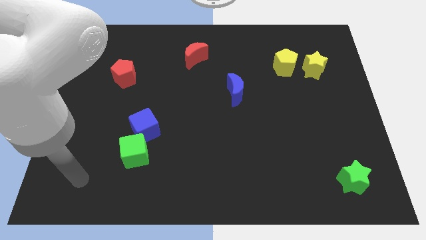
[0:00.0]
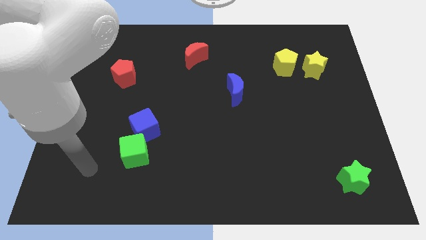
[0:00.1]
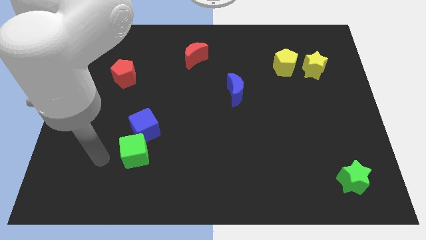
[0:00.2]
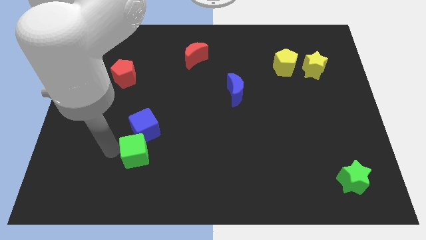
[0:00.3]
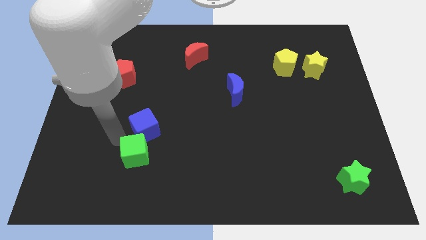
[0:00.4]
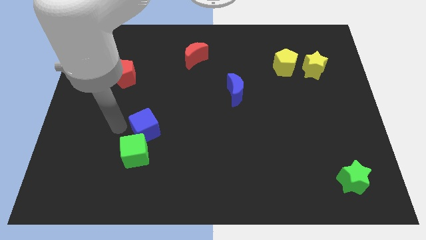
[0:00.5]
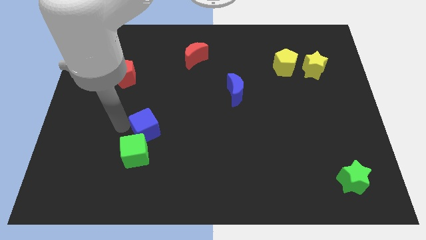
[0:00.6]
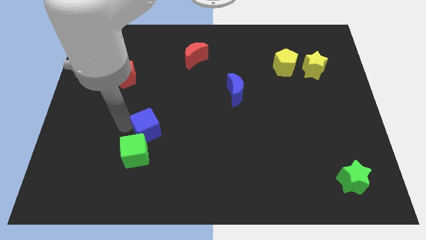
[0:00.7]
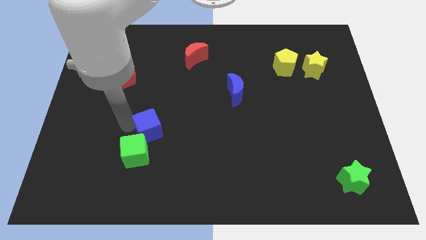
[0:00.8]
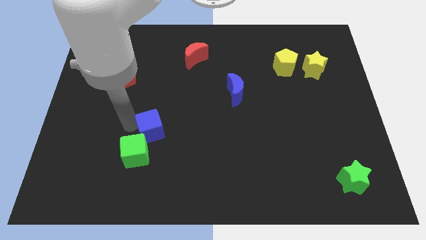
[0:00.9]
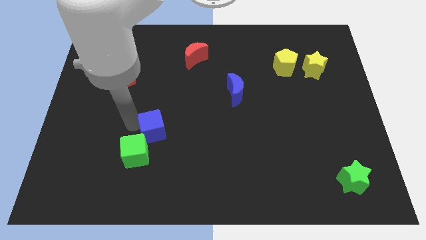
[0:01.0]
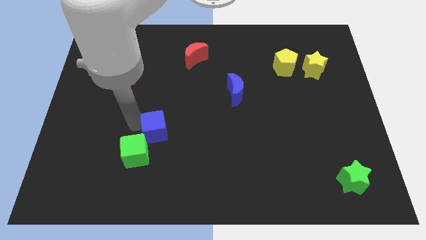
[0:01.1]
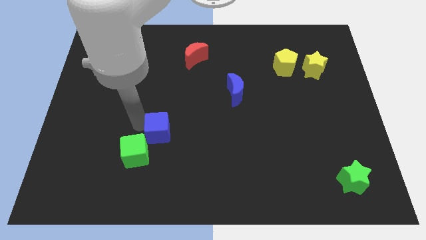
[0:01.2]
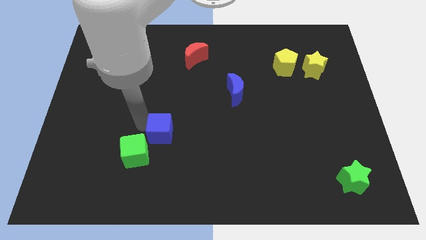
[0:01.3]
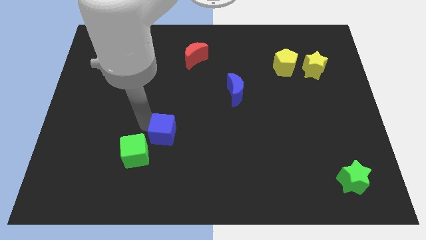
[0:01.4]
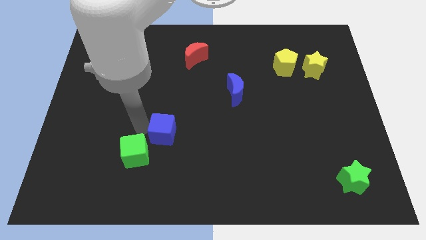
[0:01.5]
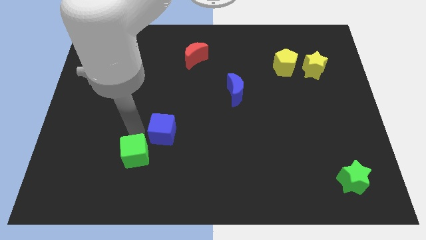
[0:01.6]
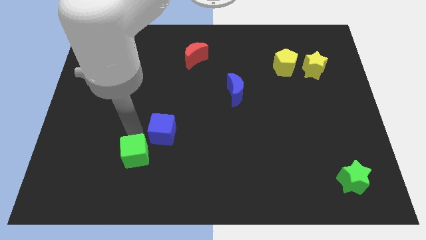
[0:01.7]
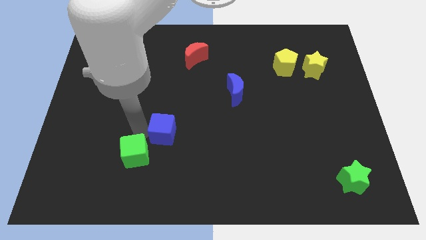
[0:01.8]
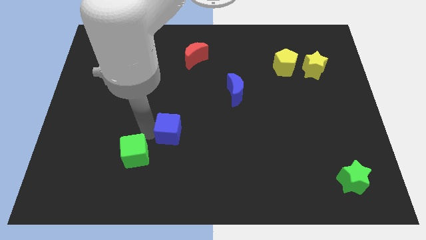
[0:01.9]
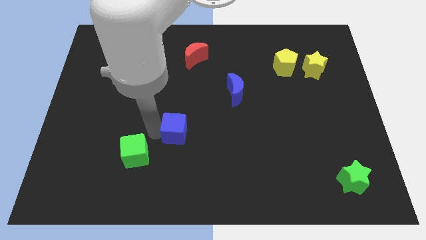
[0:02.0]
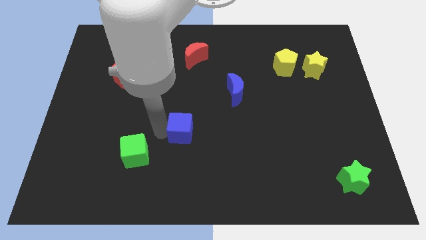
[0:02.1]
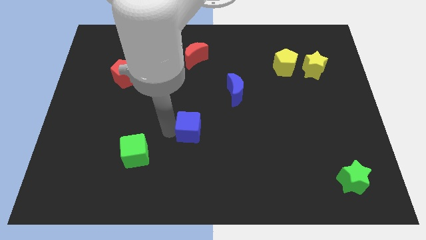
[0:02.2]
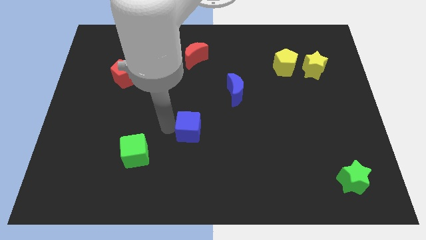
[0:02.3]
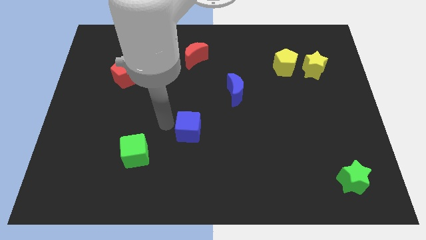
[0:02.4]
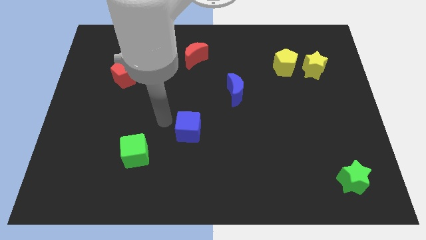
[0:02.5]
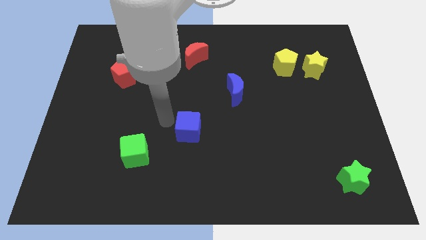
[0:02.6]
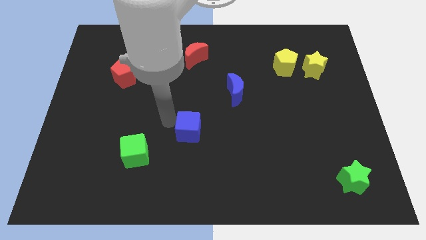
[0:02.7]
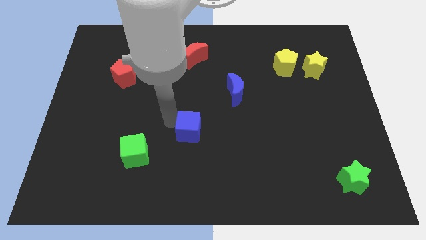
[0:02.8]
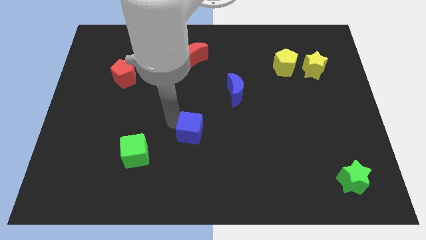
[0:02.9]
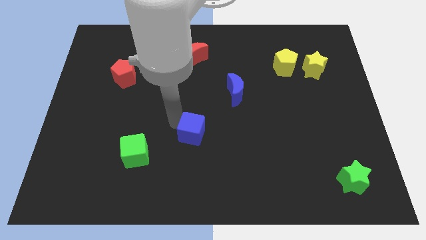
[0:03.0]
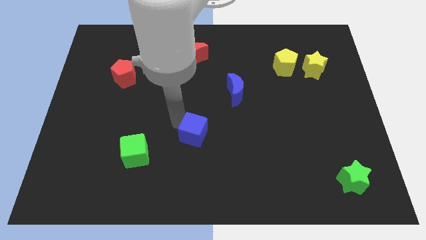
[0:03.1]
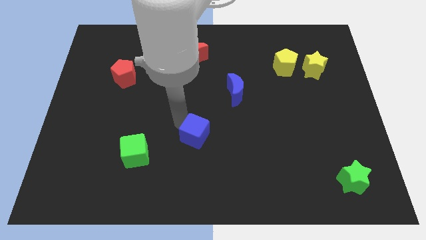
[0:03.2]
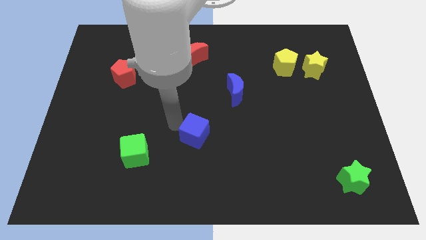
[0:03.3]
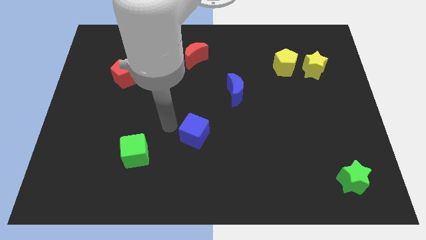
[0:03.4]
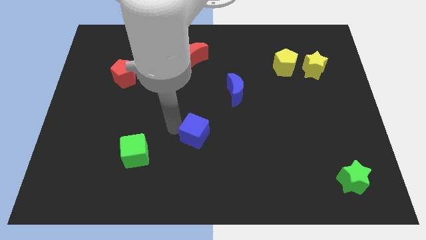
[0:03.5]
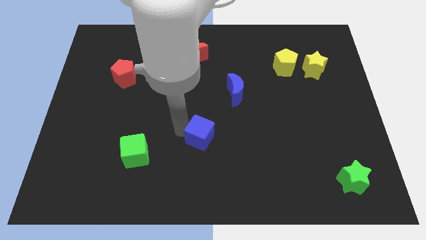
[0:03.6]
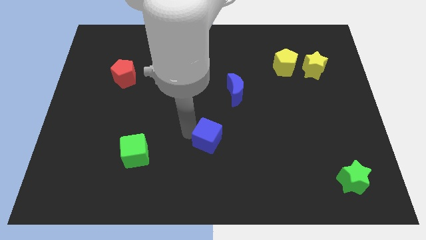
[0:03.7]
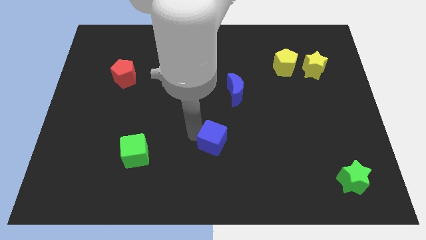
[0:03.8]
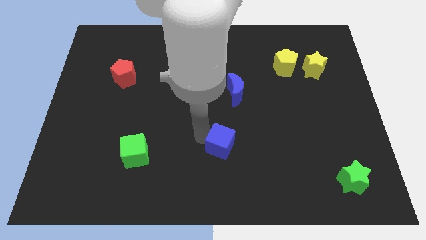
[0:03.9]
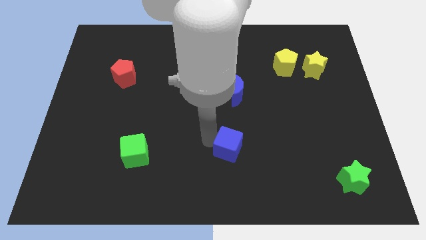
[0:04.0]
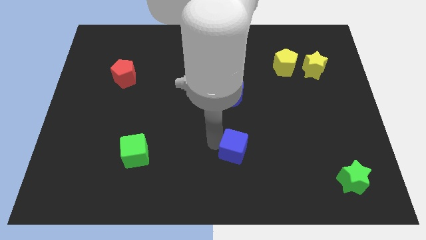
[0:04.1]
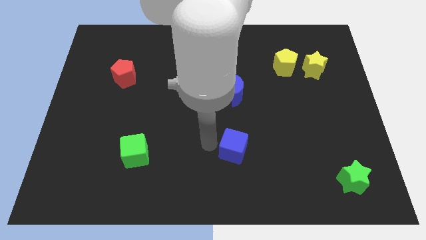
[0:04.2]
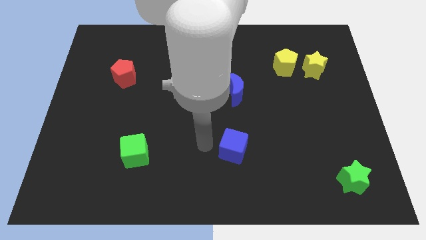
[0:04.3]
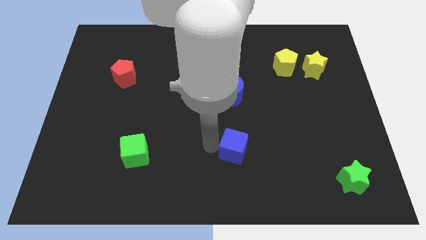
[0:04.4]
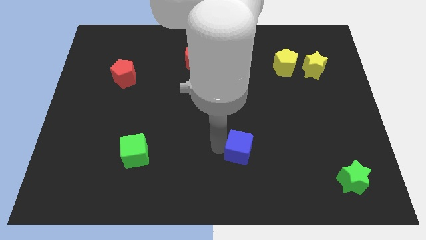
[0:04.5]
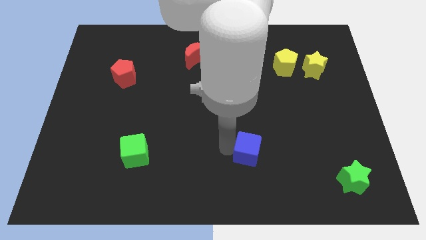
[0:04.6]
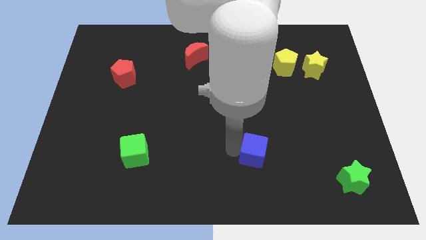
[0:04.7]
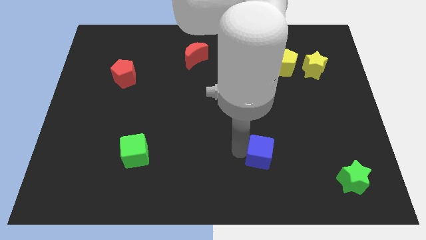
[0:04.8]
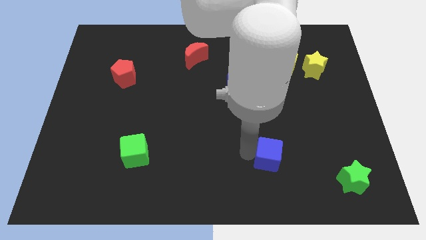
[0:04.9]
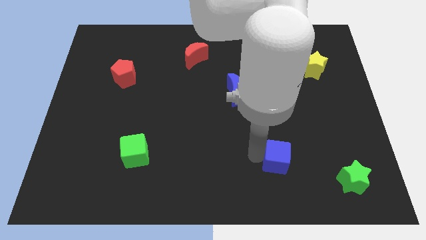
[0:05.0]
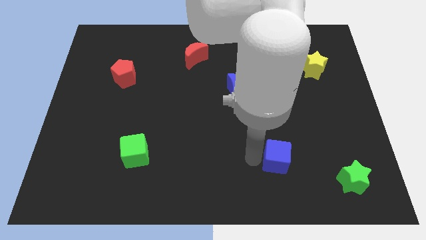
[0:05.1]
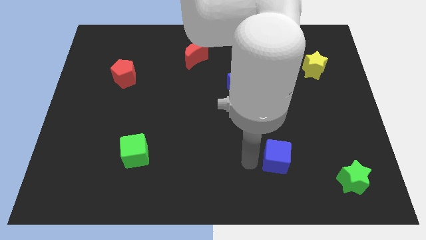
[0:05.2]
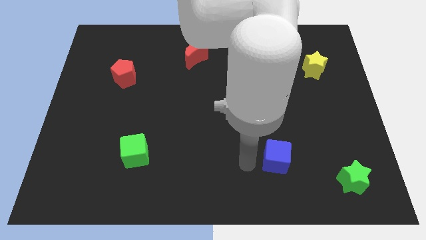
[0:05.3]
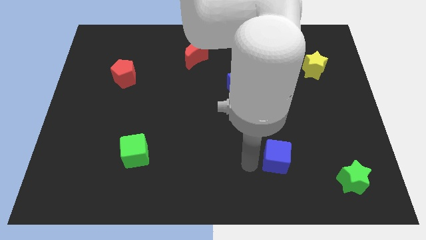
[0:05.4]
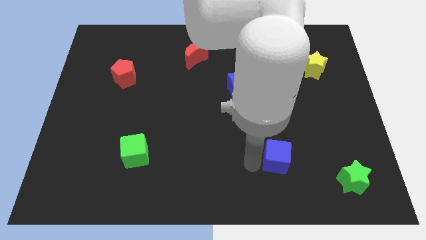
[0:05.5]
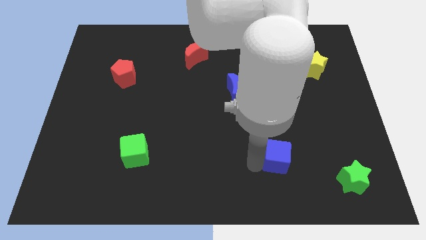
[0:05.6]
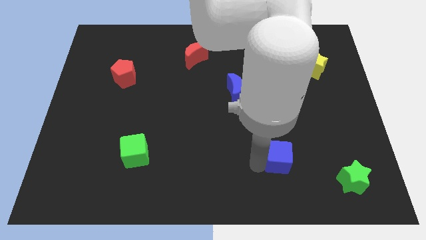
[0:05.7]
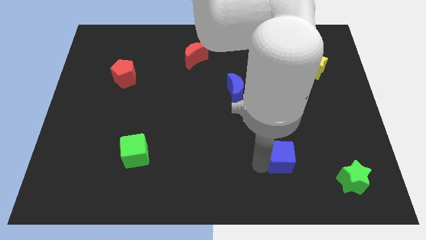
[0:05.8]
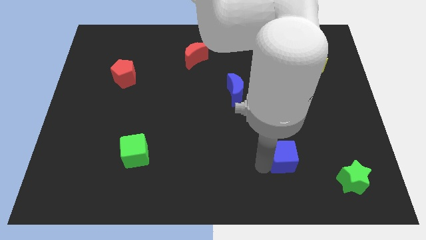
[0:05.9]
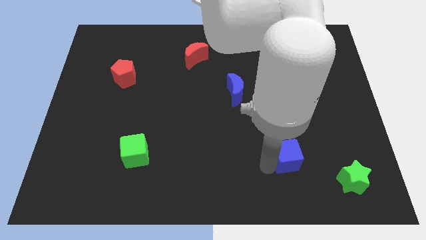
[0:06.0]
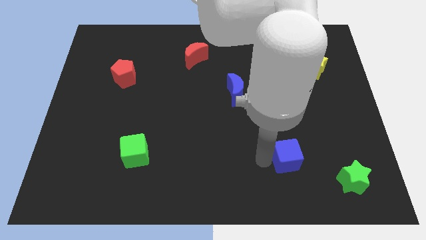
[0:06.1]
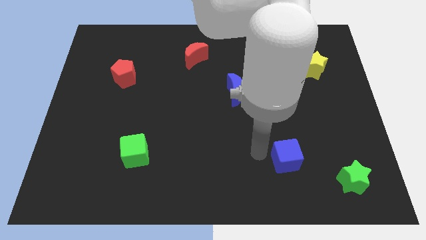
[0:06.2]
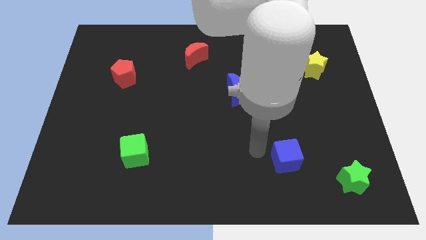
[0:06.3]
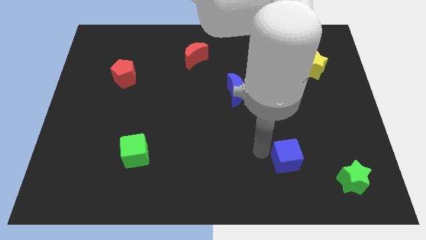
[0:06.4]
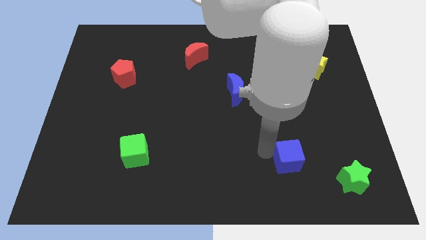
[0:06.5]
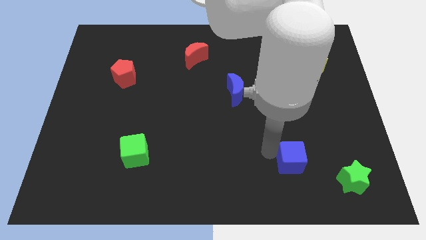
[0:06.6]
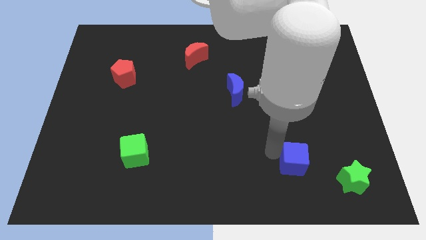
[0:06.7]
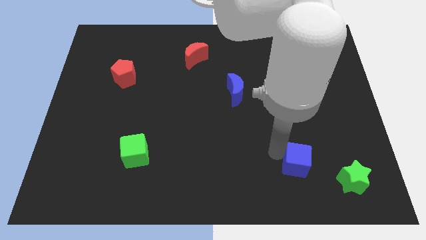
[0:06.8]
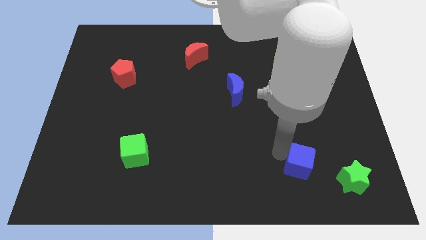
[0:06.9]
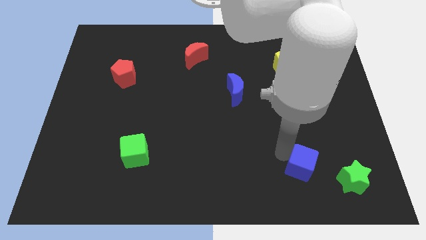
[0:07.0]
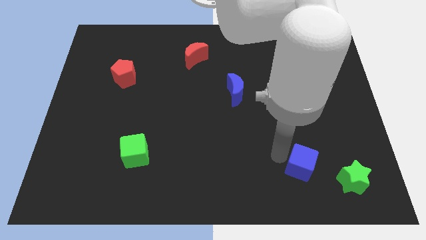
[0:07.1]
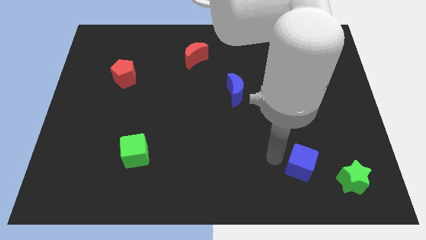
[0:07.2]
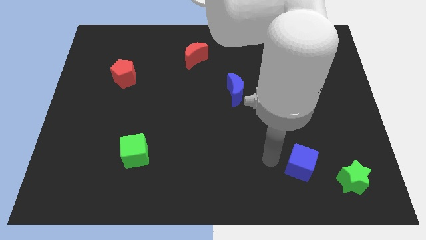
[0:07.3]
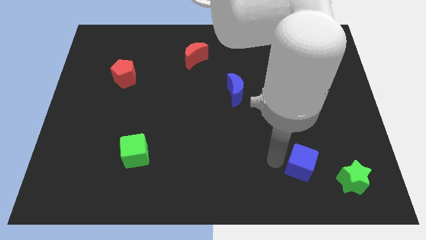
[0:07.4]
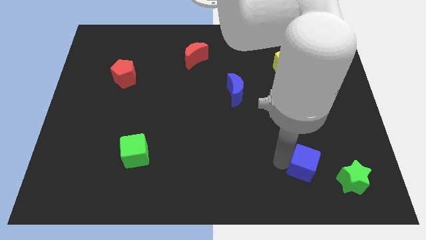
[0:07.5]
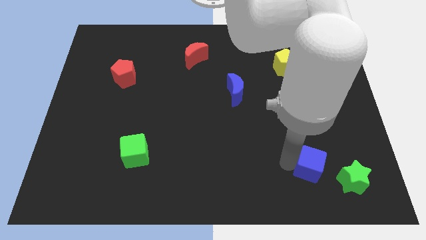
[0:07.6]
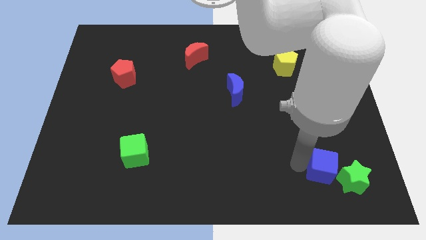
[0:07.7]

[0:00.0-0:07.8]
move the blue cube close to the green star
